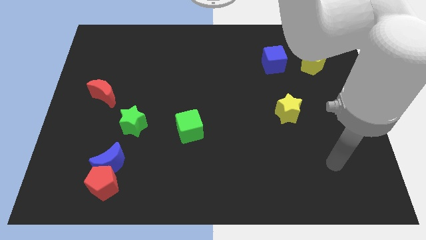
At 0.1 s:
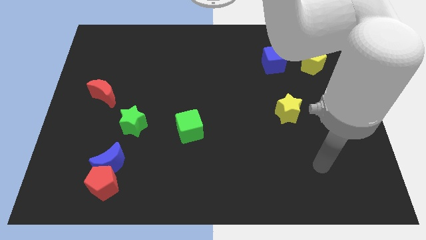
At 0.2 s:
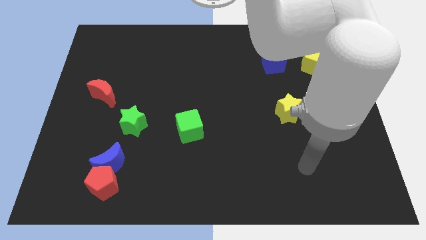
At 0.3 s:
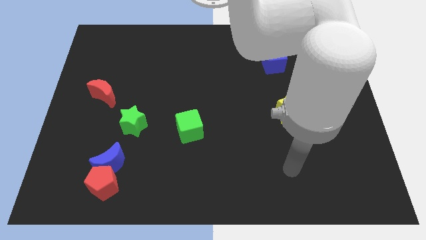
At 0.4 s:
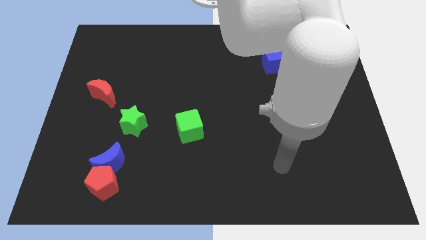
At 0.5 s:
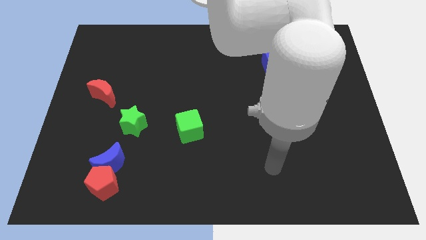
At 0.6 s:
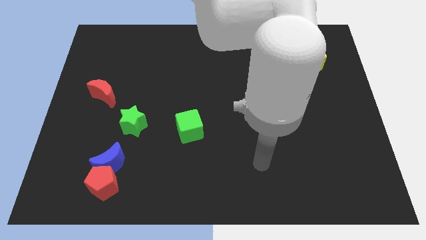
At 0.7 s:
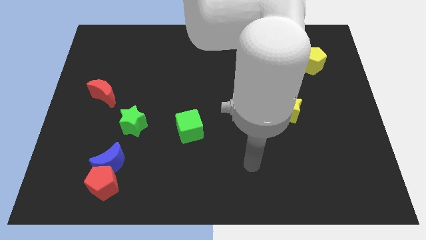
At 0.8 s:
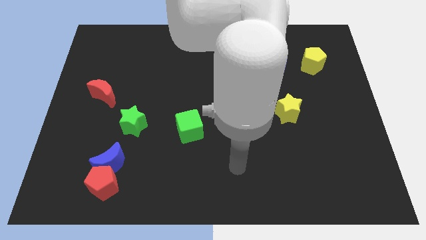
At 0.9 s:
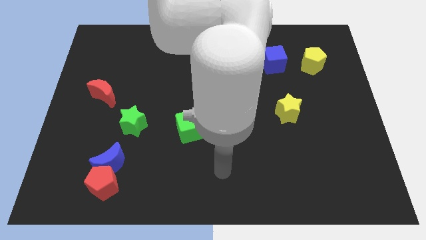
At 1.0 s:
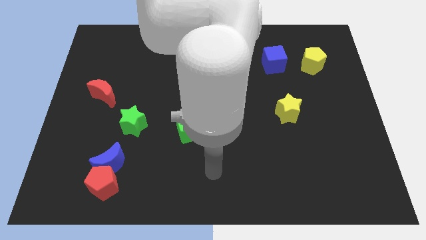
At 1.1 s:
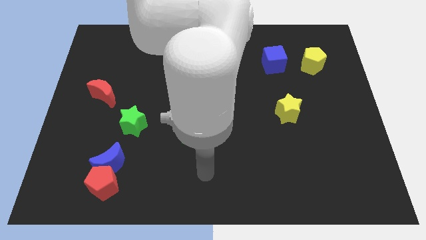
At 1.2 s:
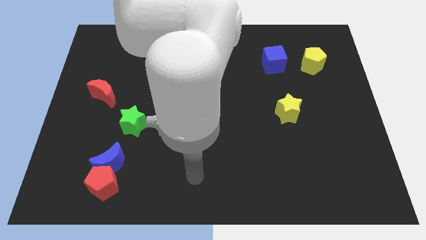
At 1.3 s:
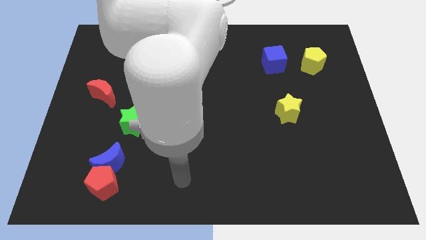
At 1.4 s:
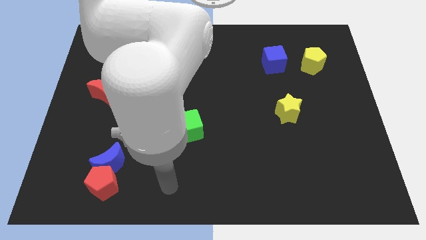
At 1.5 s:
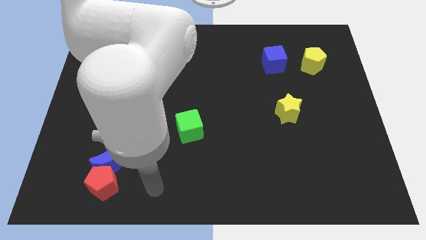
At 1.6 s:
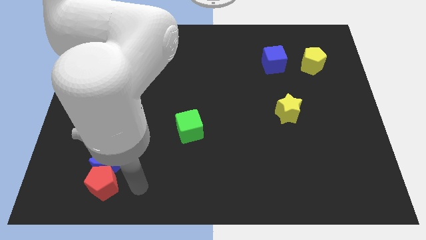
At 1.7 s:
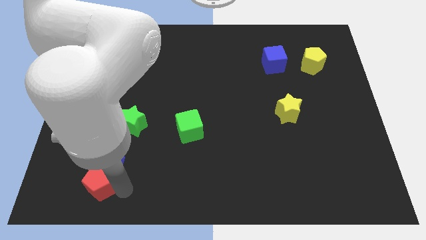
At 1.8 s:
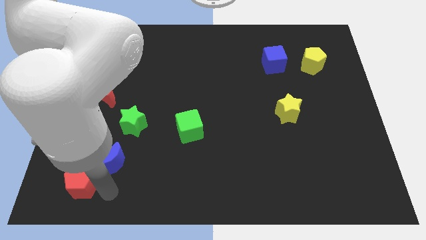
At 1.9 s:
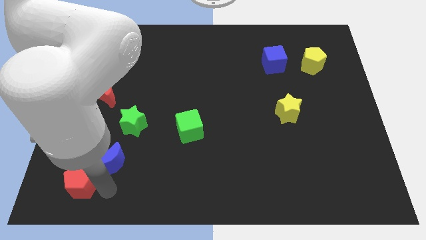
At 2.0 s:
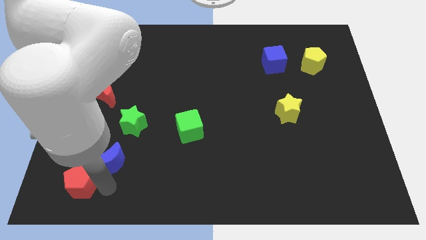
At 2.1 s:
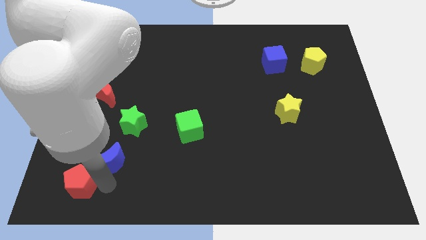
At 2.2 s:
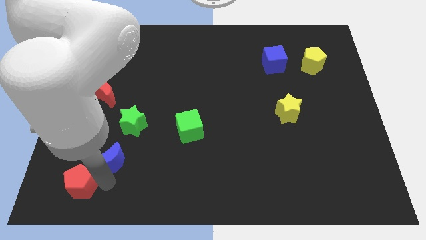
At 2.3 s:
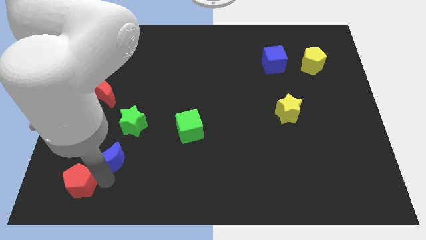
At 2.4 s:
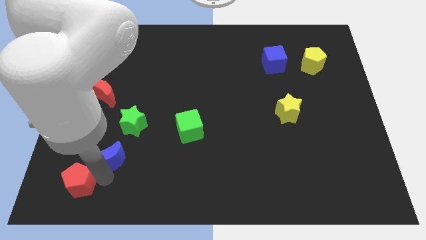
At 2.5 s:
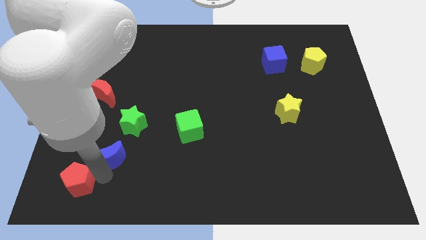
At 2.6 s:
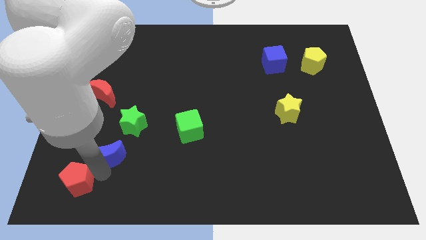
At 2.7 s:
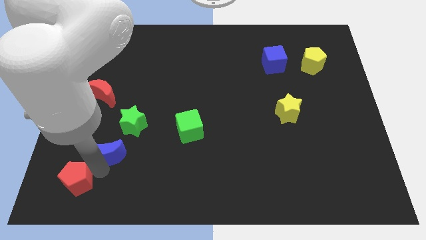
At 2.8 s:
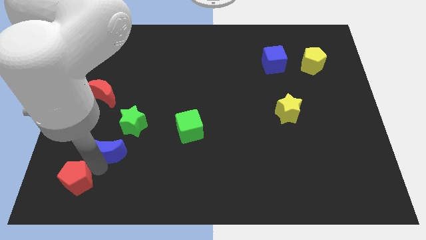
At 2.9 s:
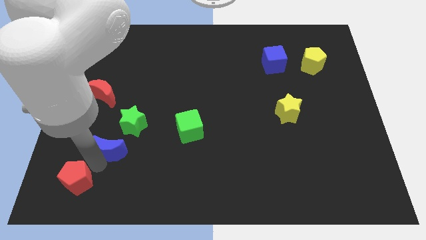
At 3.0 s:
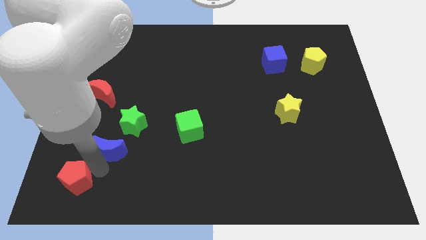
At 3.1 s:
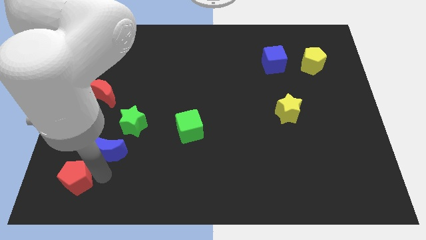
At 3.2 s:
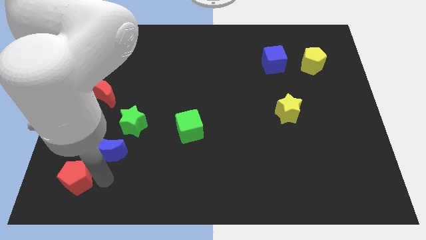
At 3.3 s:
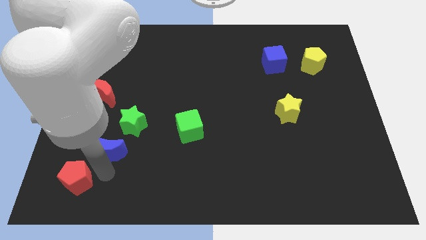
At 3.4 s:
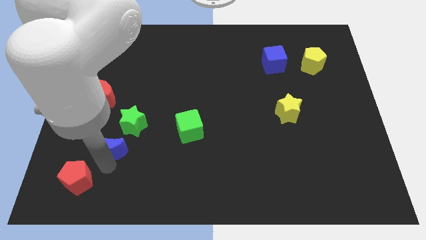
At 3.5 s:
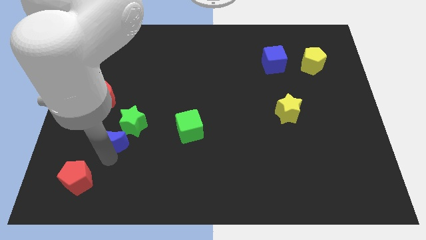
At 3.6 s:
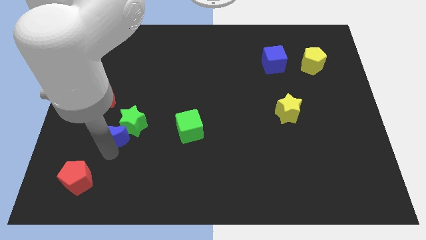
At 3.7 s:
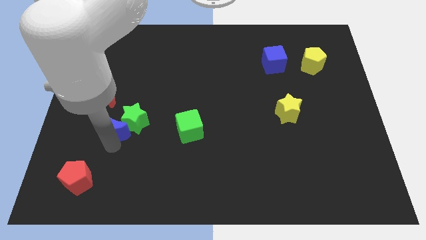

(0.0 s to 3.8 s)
slightly move the blue moon upwards

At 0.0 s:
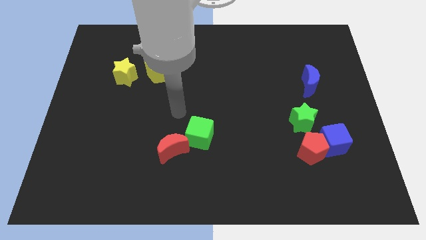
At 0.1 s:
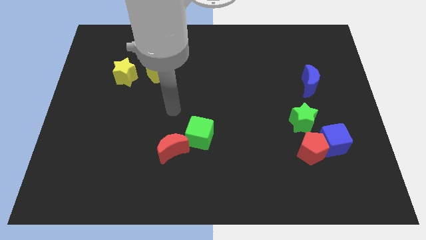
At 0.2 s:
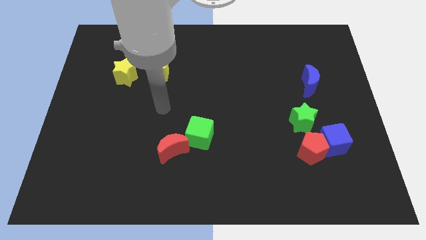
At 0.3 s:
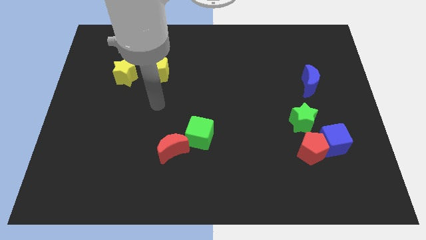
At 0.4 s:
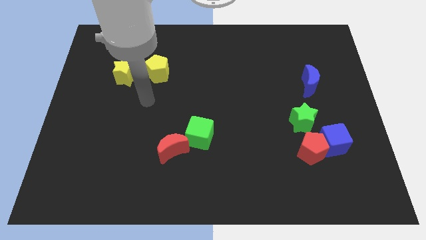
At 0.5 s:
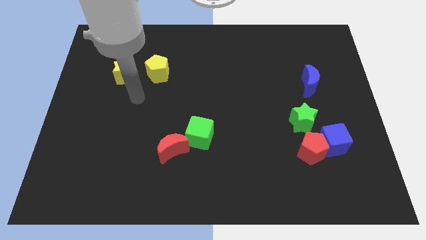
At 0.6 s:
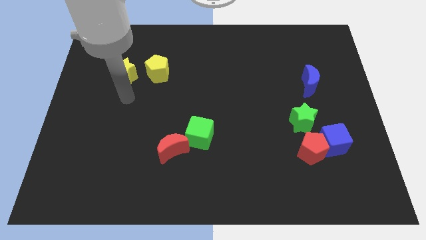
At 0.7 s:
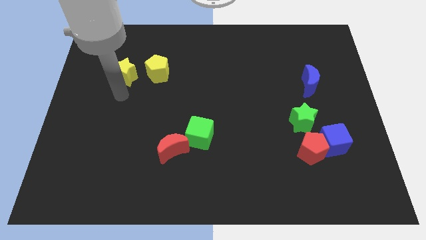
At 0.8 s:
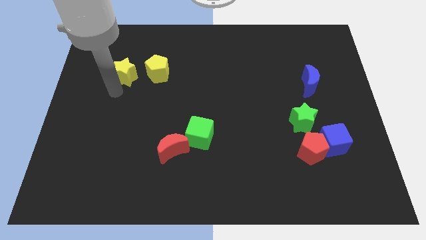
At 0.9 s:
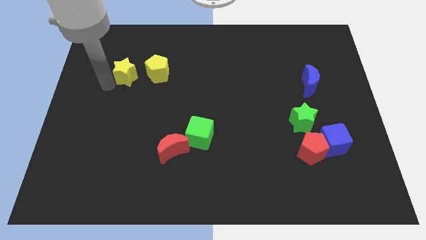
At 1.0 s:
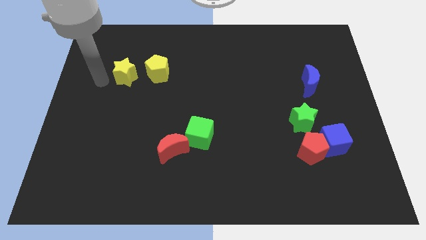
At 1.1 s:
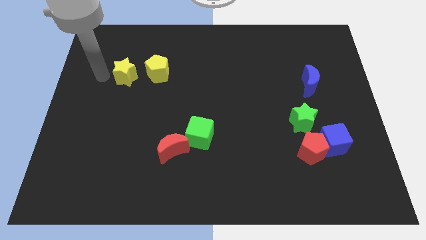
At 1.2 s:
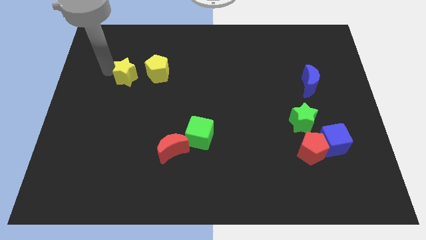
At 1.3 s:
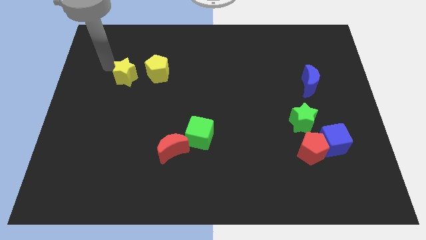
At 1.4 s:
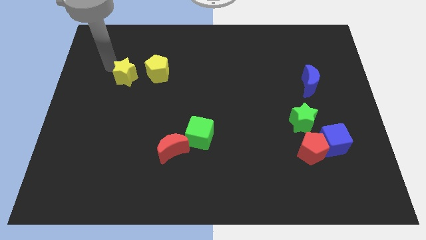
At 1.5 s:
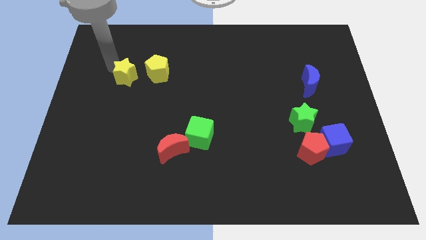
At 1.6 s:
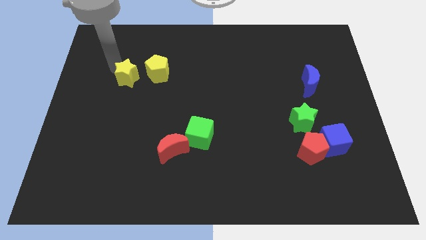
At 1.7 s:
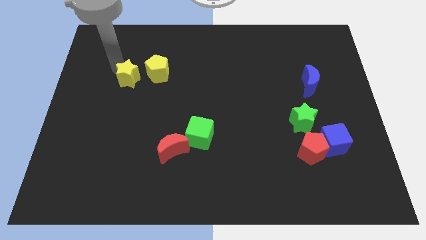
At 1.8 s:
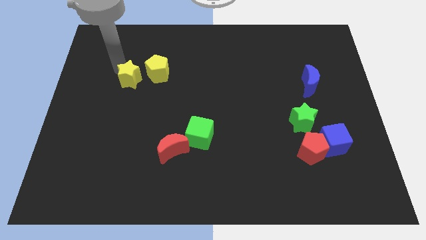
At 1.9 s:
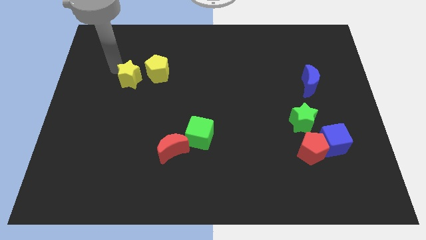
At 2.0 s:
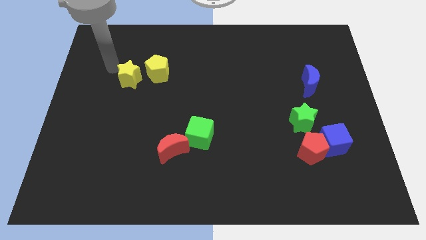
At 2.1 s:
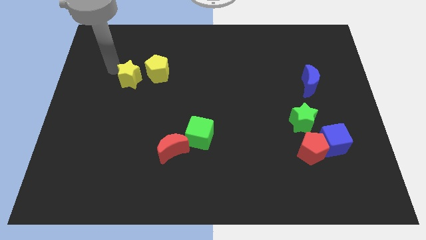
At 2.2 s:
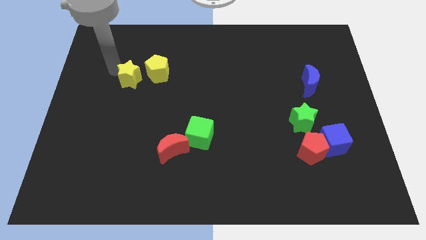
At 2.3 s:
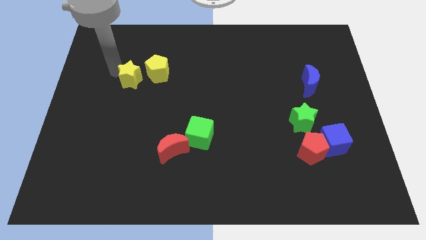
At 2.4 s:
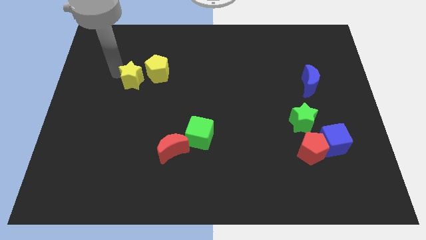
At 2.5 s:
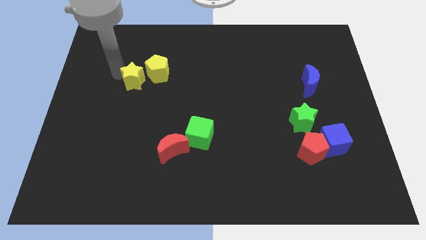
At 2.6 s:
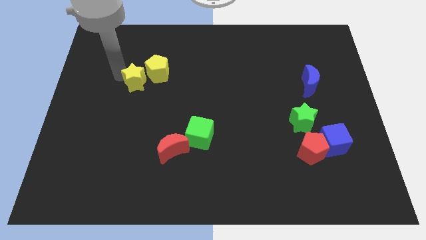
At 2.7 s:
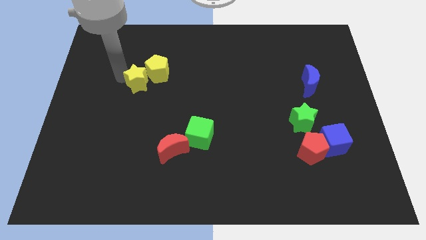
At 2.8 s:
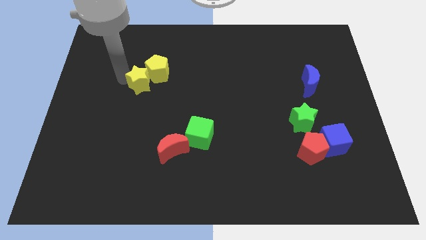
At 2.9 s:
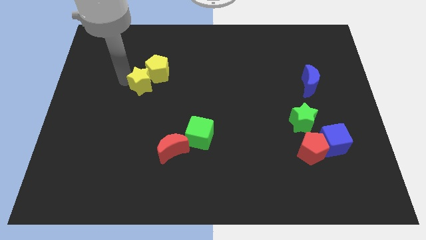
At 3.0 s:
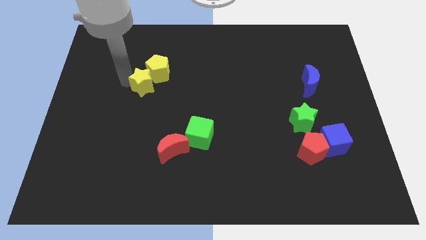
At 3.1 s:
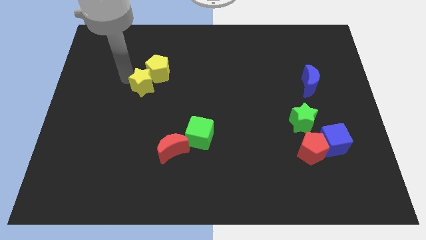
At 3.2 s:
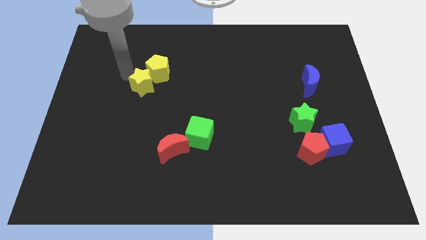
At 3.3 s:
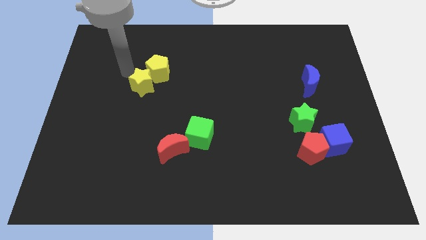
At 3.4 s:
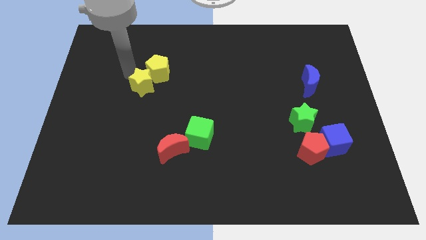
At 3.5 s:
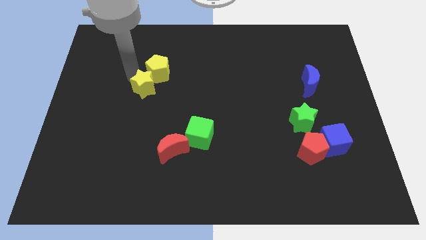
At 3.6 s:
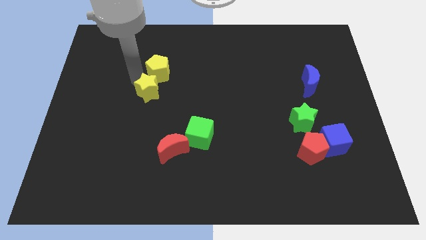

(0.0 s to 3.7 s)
slightly slide the yellow star downwards and right

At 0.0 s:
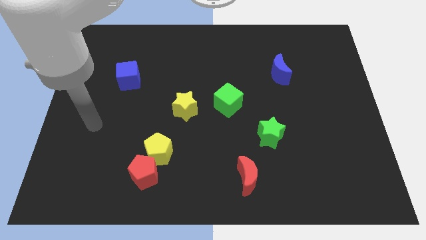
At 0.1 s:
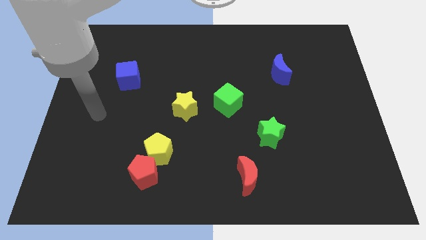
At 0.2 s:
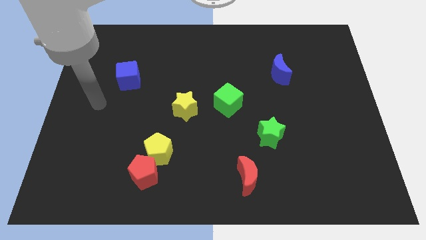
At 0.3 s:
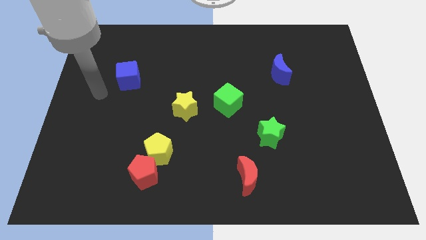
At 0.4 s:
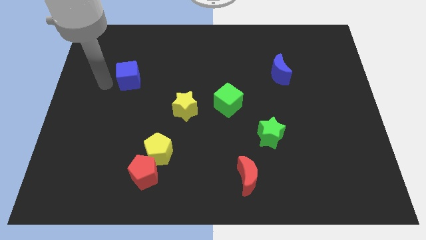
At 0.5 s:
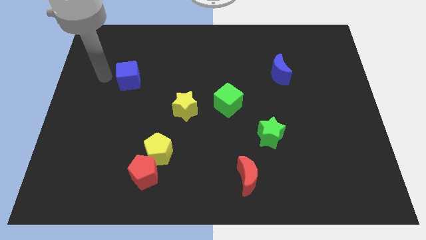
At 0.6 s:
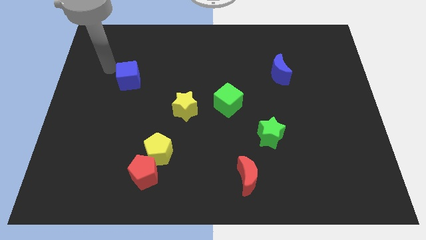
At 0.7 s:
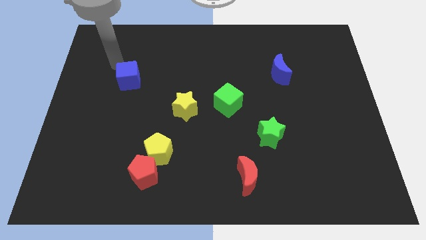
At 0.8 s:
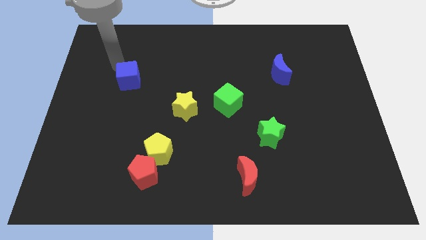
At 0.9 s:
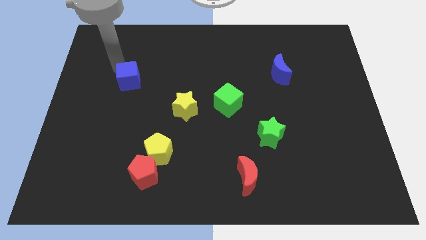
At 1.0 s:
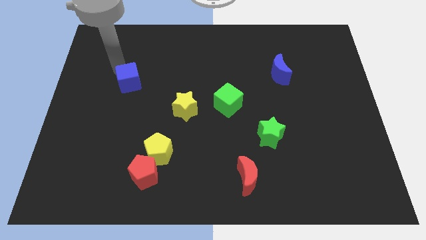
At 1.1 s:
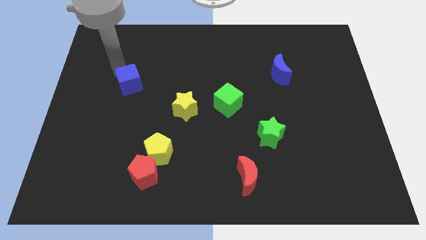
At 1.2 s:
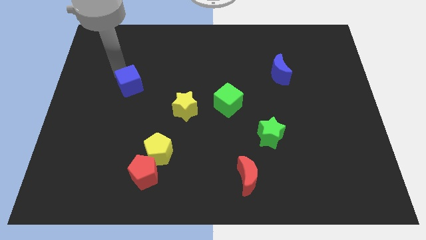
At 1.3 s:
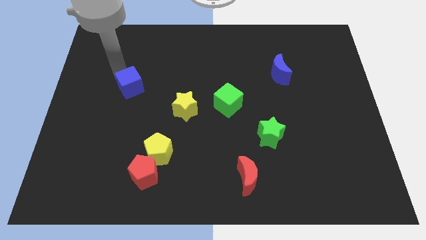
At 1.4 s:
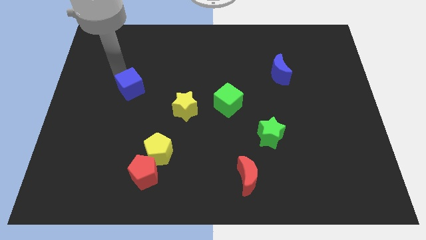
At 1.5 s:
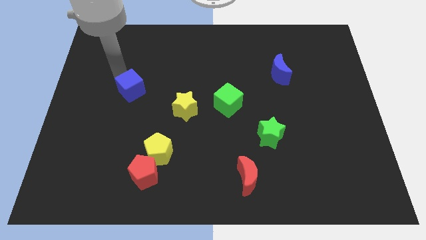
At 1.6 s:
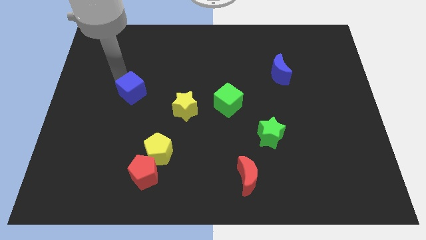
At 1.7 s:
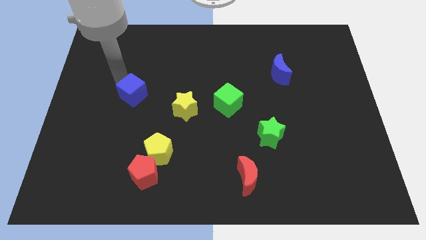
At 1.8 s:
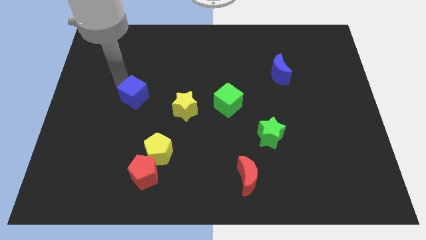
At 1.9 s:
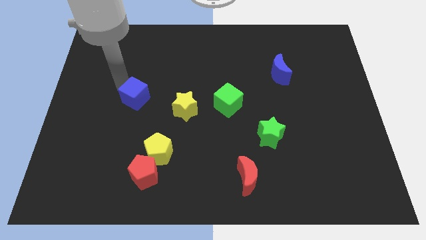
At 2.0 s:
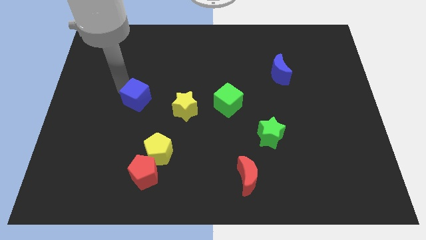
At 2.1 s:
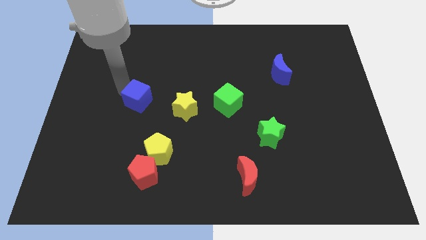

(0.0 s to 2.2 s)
push the blue cube downwards and then to the right a bit
